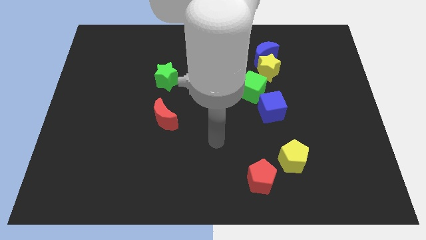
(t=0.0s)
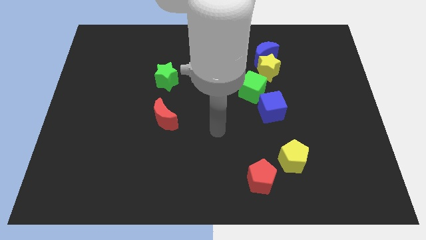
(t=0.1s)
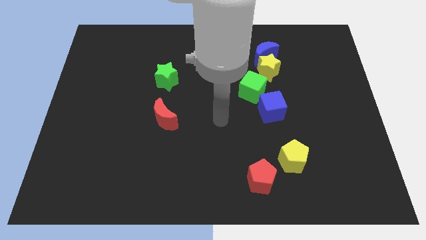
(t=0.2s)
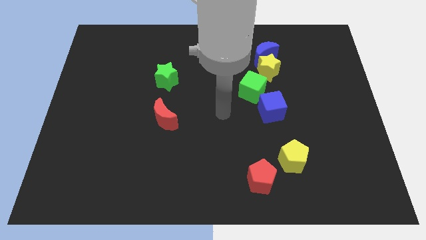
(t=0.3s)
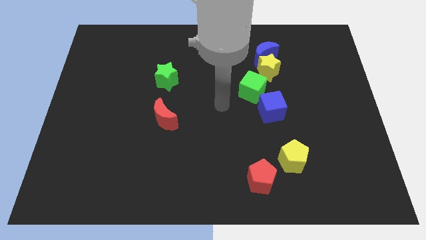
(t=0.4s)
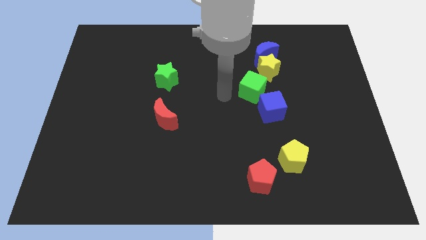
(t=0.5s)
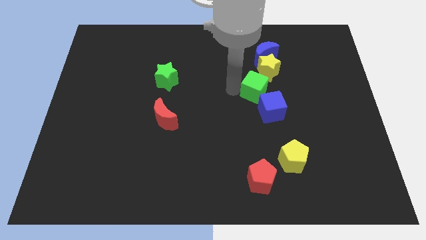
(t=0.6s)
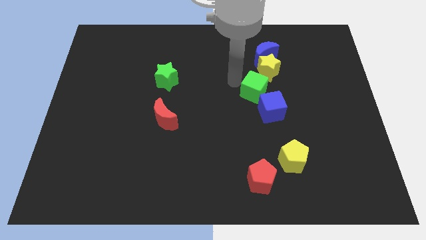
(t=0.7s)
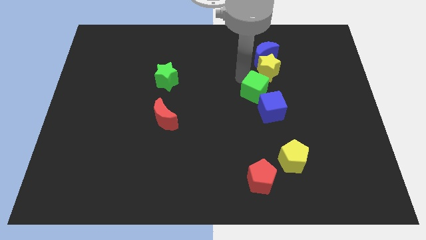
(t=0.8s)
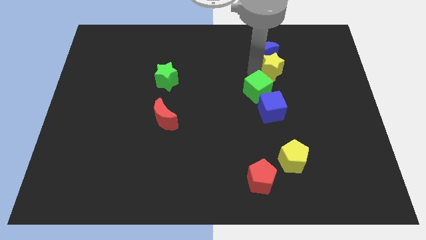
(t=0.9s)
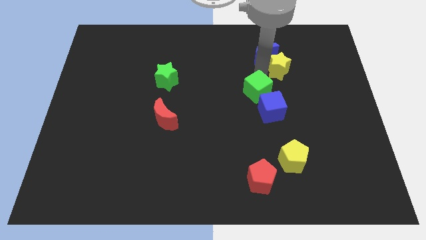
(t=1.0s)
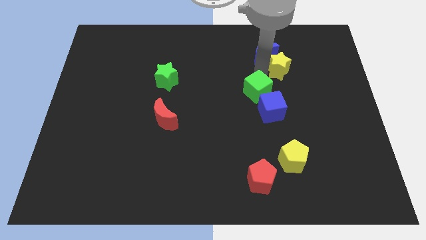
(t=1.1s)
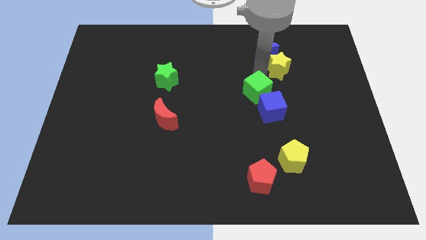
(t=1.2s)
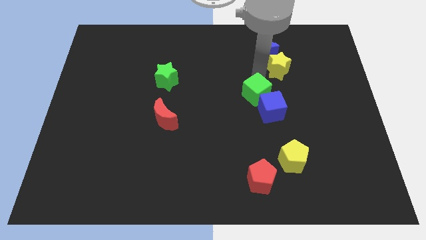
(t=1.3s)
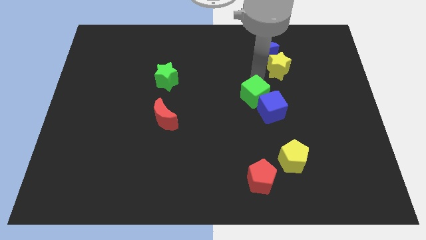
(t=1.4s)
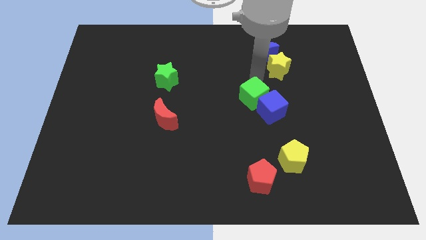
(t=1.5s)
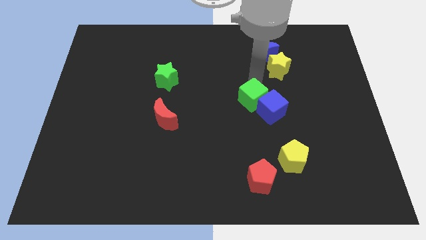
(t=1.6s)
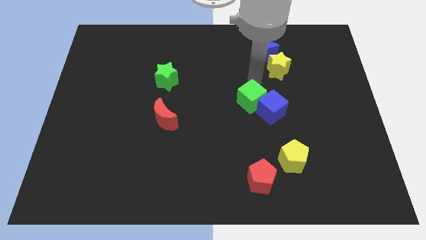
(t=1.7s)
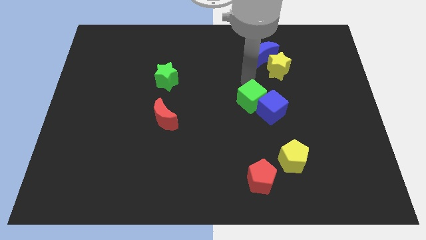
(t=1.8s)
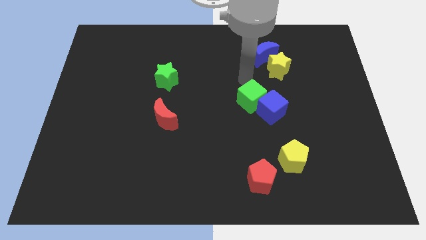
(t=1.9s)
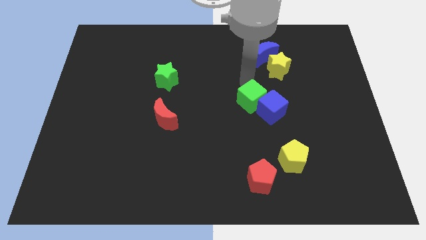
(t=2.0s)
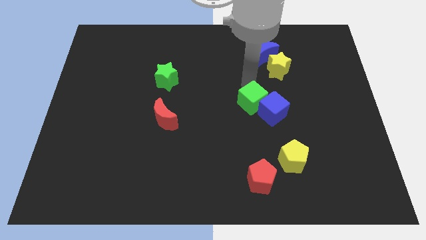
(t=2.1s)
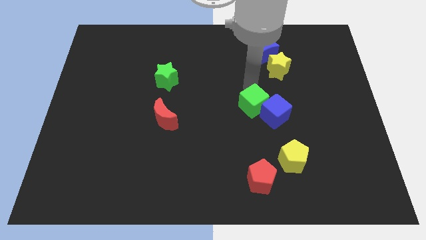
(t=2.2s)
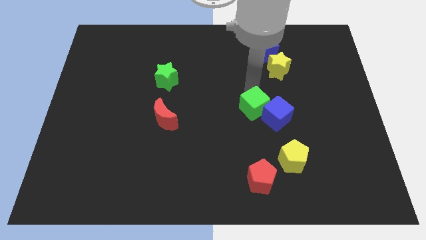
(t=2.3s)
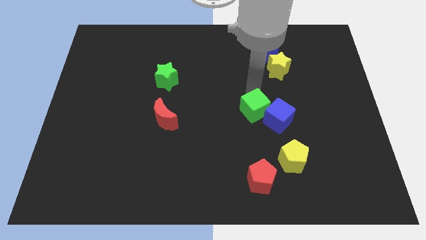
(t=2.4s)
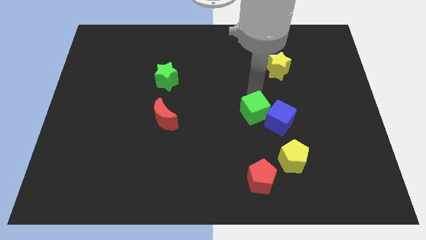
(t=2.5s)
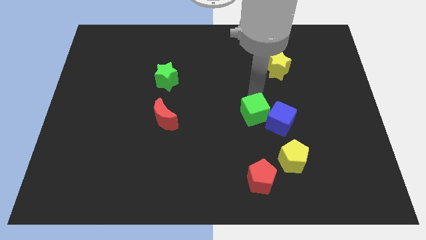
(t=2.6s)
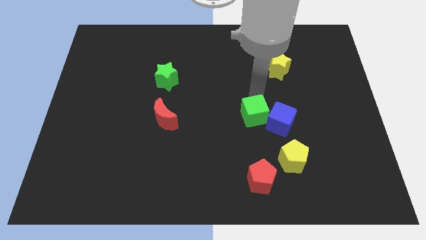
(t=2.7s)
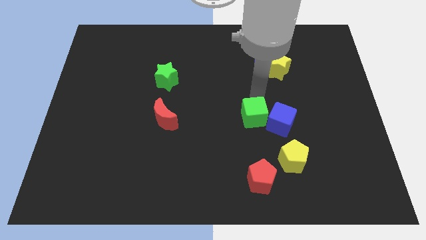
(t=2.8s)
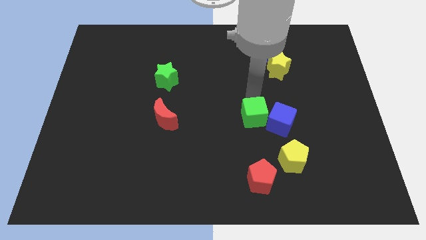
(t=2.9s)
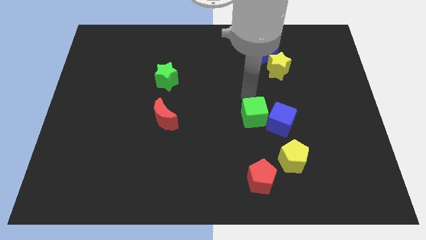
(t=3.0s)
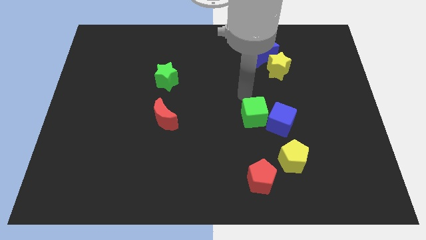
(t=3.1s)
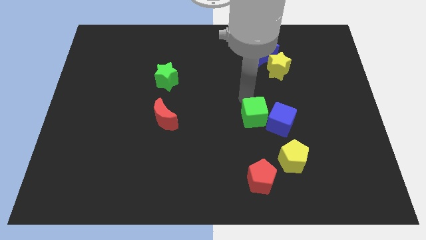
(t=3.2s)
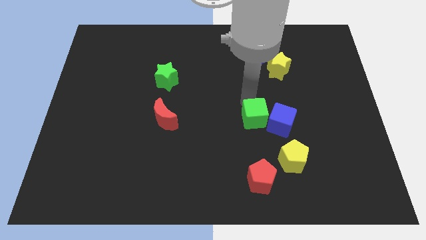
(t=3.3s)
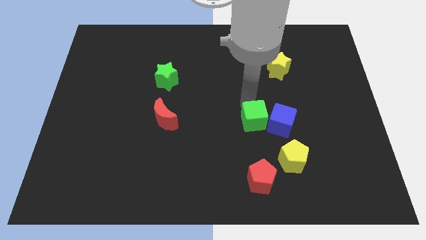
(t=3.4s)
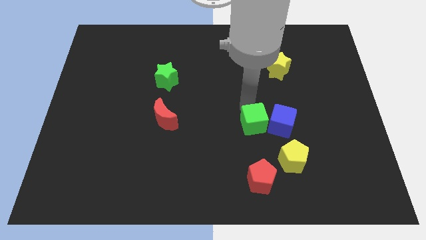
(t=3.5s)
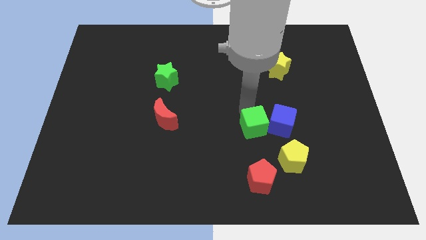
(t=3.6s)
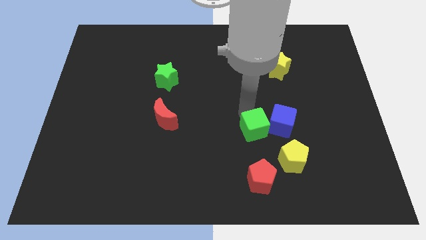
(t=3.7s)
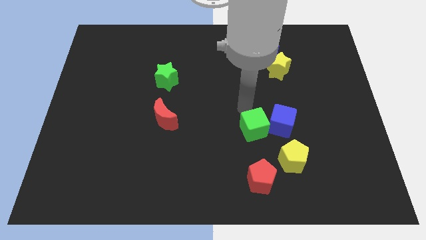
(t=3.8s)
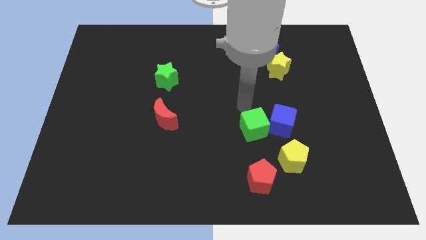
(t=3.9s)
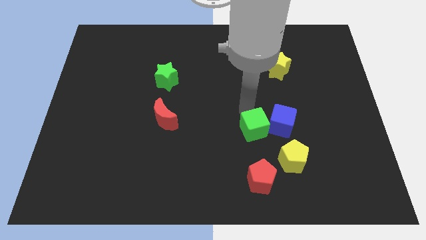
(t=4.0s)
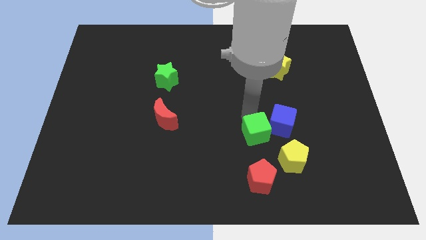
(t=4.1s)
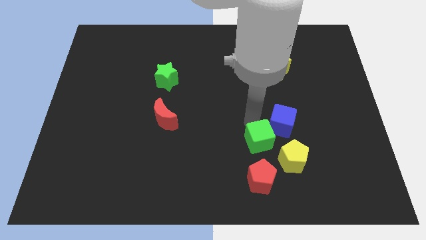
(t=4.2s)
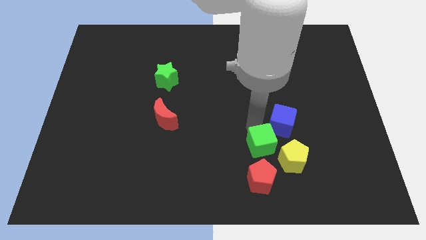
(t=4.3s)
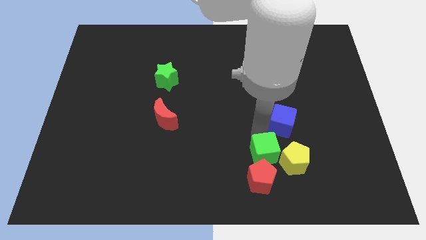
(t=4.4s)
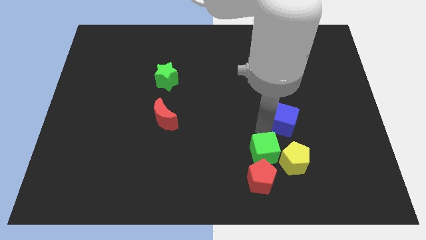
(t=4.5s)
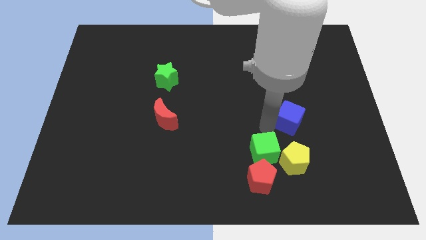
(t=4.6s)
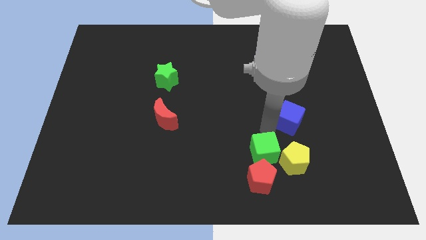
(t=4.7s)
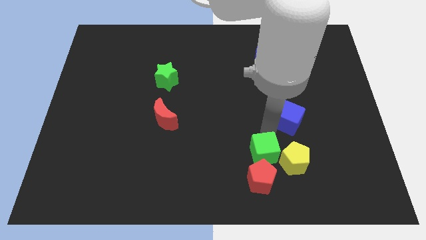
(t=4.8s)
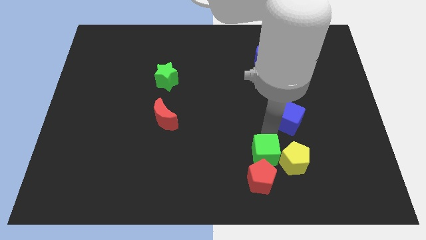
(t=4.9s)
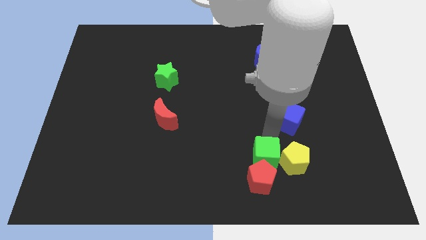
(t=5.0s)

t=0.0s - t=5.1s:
move the green cube close to the red pentagon

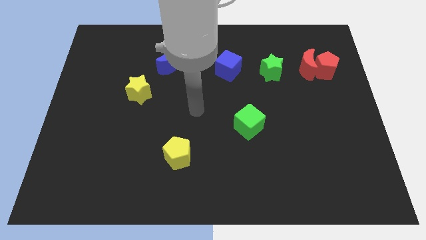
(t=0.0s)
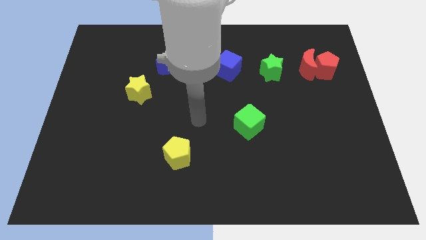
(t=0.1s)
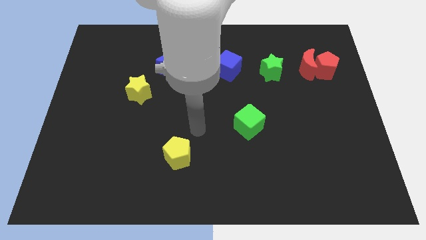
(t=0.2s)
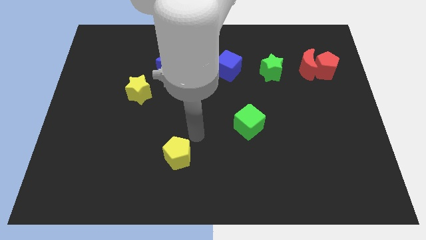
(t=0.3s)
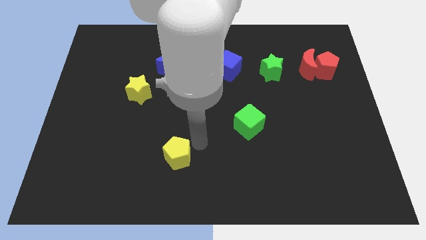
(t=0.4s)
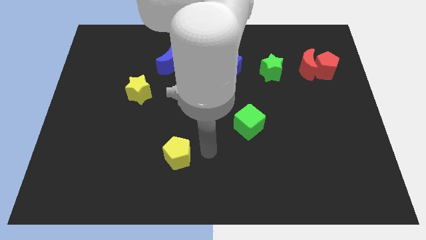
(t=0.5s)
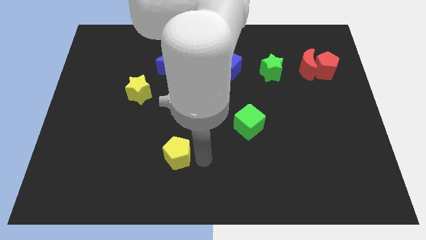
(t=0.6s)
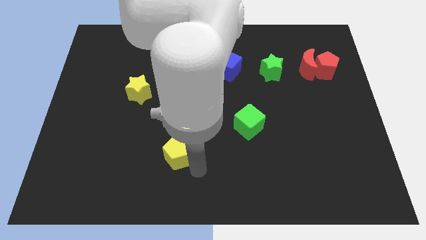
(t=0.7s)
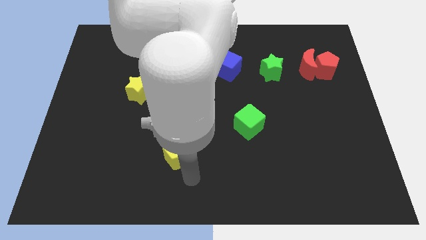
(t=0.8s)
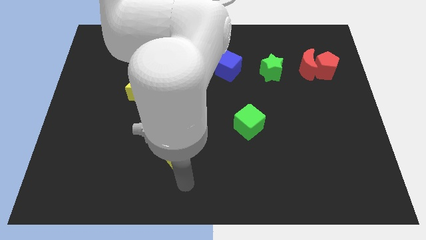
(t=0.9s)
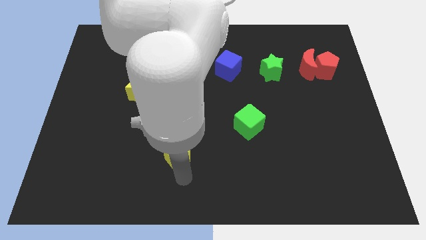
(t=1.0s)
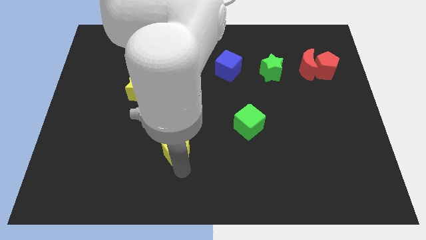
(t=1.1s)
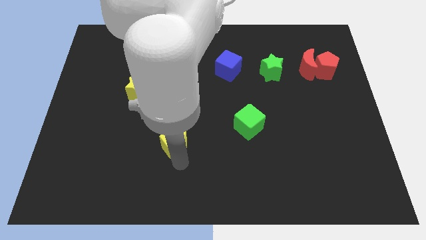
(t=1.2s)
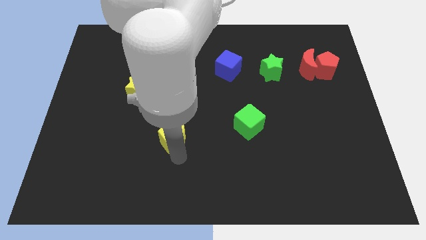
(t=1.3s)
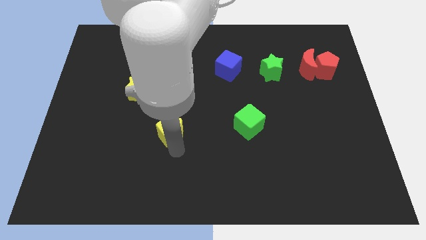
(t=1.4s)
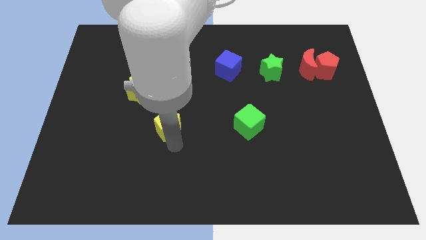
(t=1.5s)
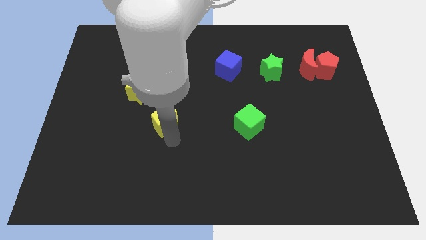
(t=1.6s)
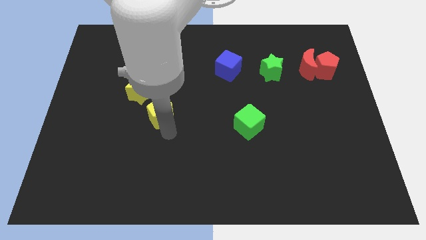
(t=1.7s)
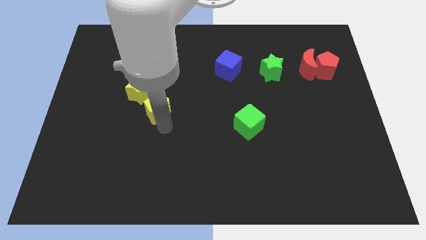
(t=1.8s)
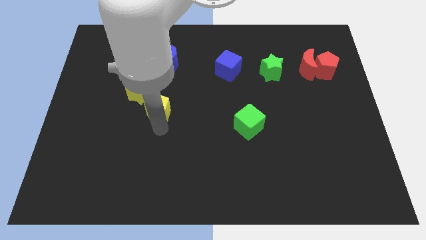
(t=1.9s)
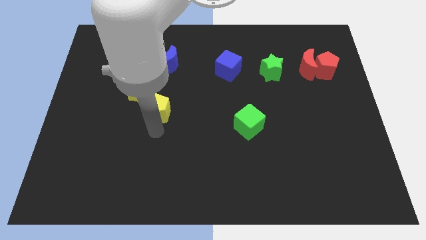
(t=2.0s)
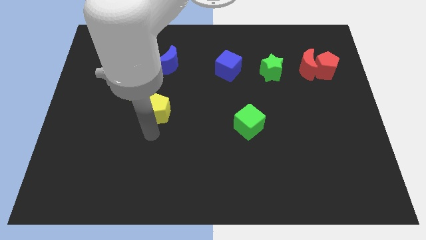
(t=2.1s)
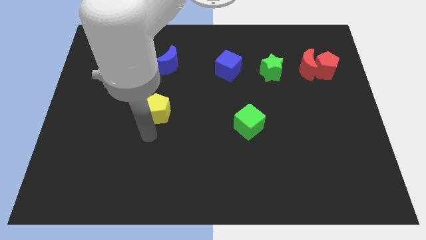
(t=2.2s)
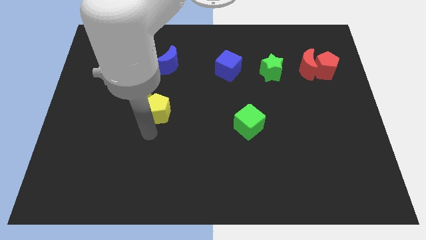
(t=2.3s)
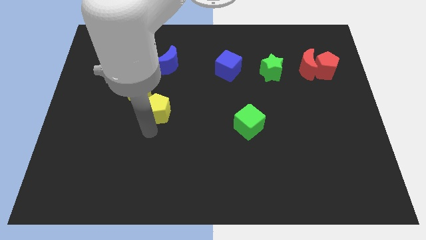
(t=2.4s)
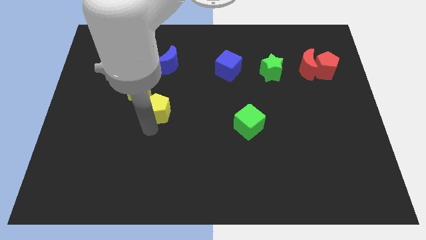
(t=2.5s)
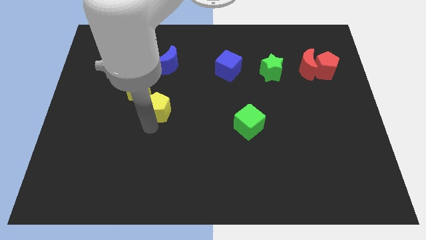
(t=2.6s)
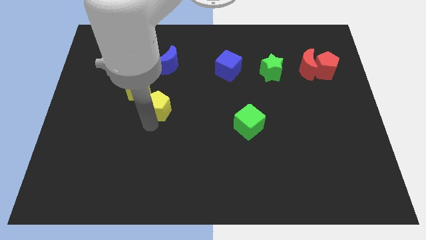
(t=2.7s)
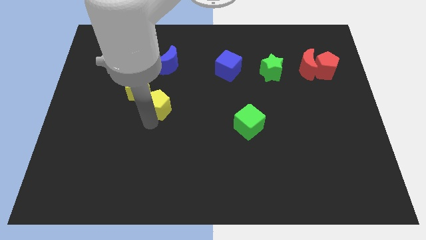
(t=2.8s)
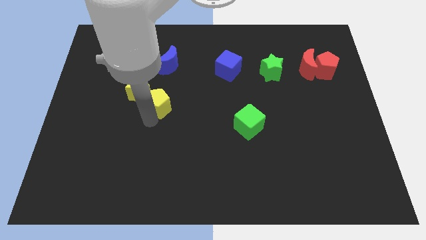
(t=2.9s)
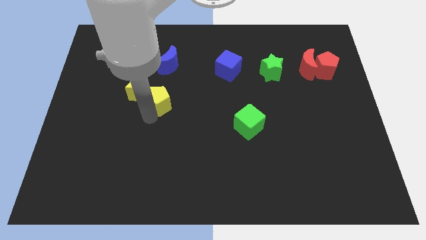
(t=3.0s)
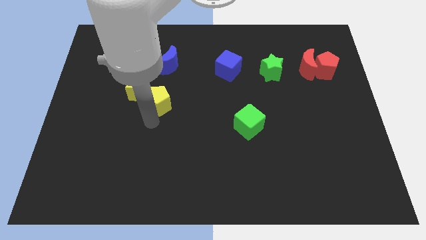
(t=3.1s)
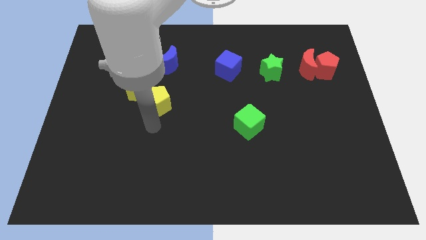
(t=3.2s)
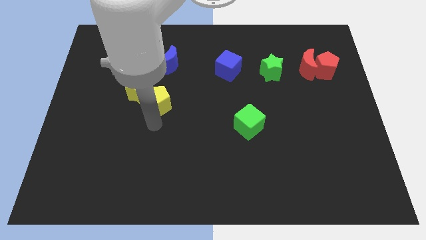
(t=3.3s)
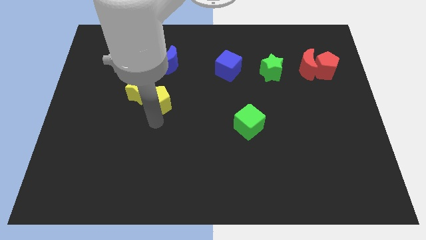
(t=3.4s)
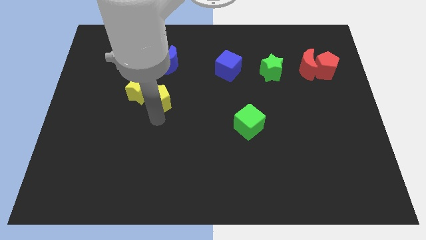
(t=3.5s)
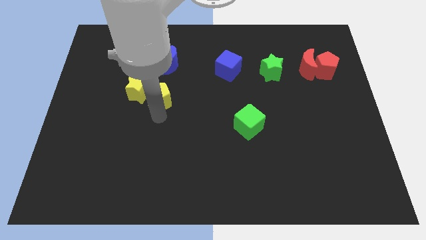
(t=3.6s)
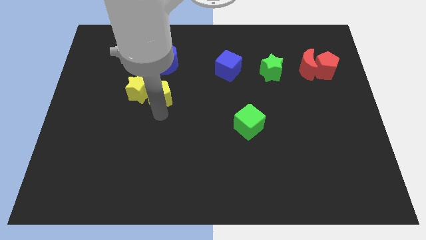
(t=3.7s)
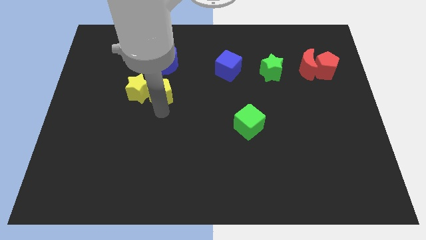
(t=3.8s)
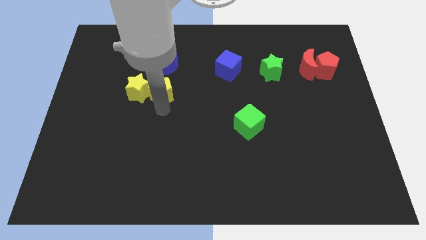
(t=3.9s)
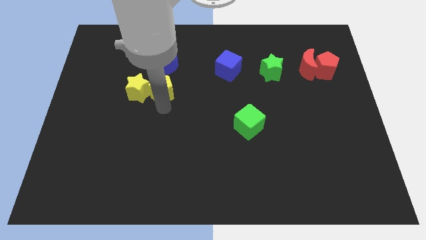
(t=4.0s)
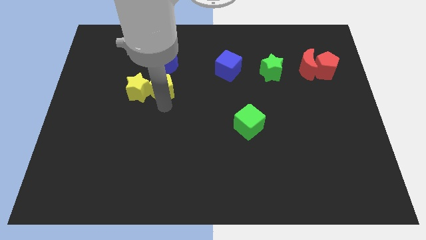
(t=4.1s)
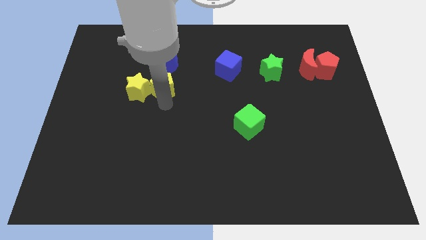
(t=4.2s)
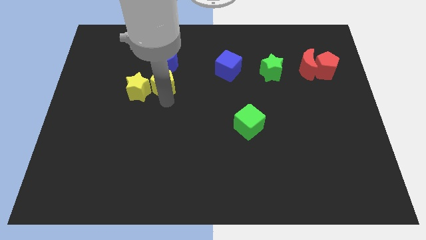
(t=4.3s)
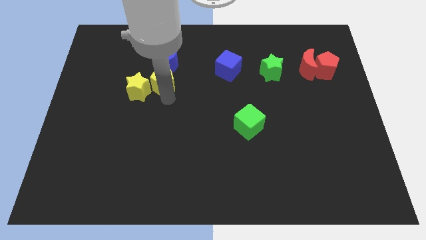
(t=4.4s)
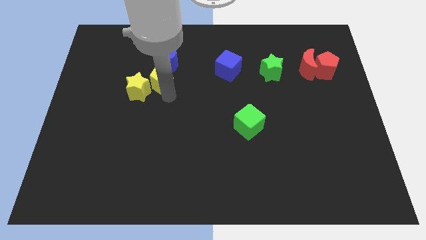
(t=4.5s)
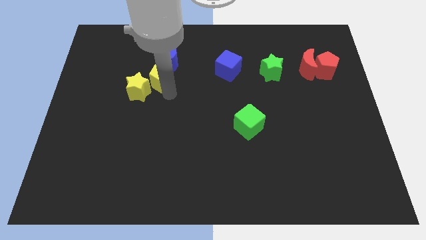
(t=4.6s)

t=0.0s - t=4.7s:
put the yellow pentagon close to the blue moon
